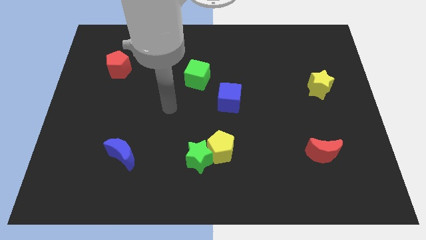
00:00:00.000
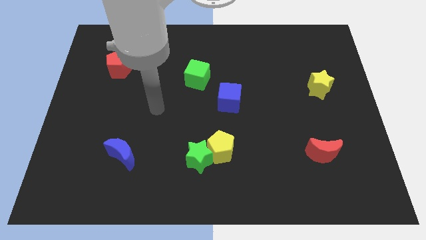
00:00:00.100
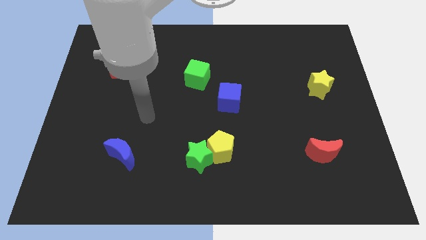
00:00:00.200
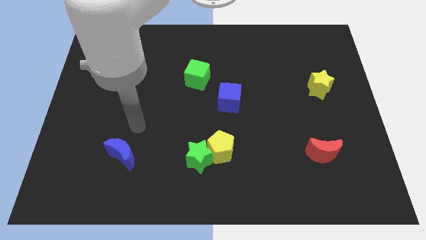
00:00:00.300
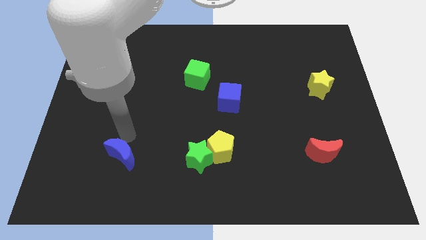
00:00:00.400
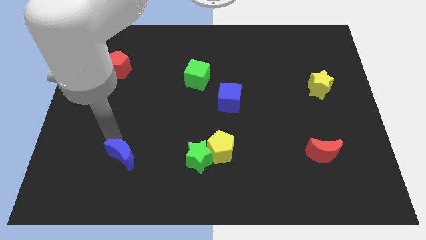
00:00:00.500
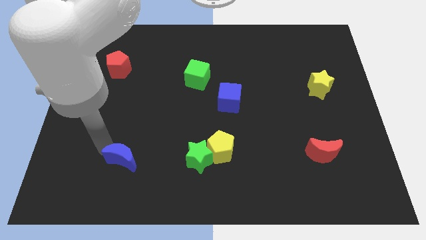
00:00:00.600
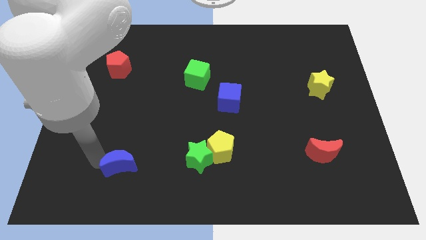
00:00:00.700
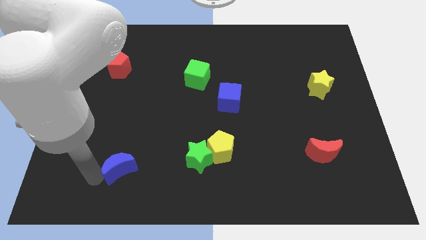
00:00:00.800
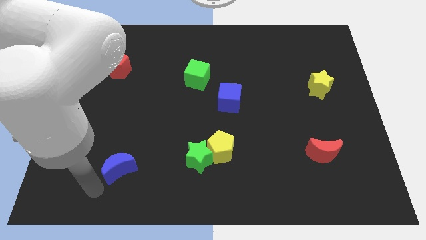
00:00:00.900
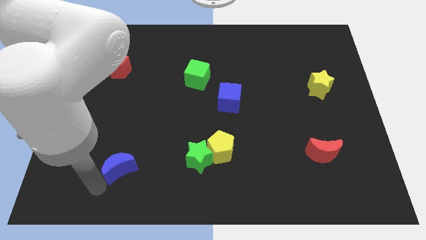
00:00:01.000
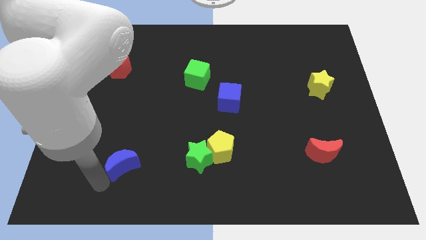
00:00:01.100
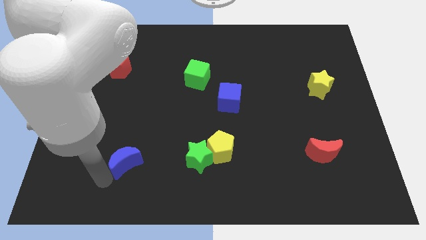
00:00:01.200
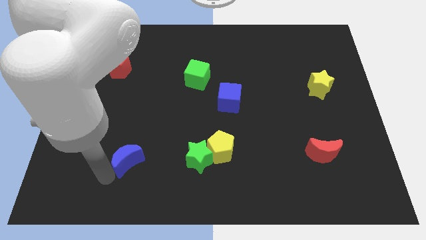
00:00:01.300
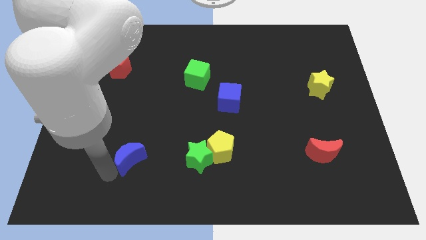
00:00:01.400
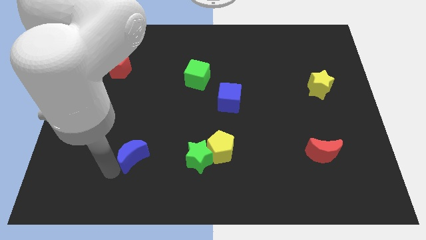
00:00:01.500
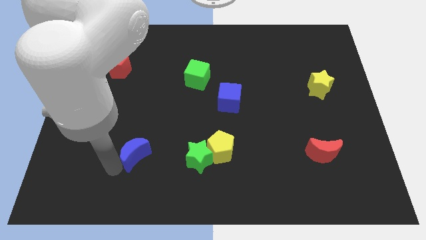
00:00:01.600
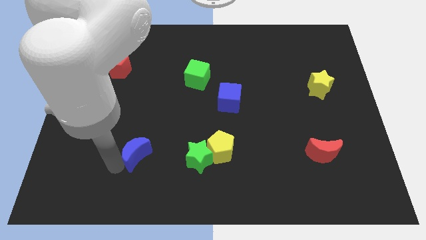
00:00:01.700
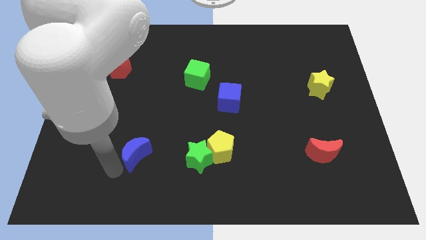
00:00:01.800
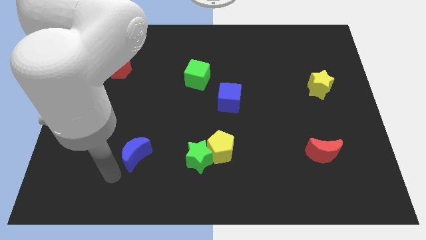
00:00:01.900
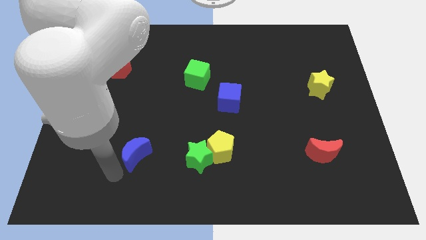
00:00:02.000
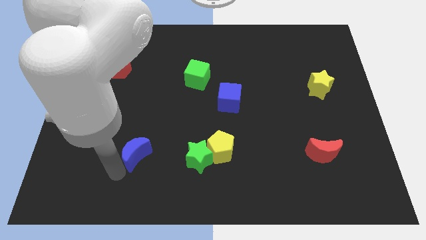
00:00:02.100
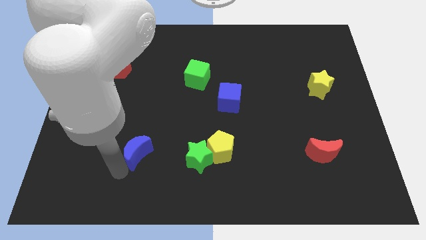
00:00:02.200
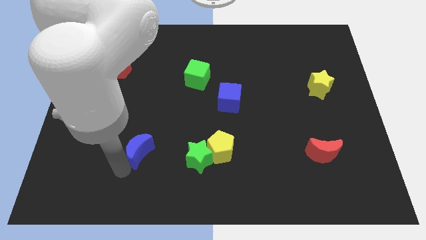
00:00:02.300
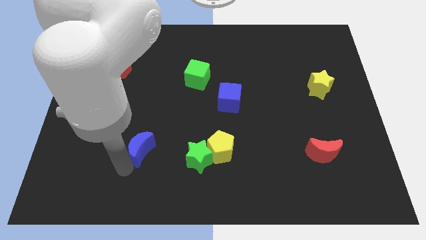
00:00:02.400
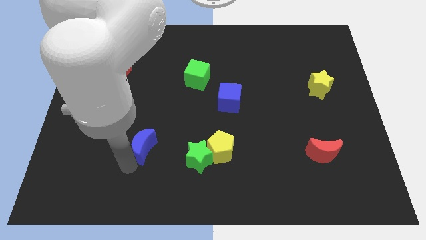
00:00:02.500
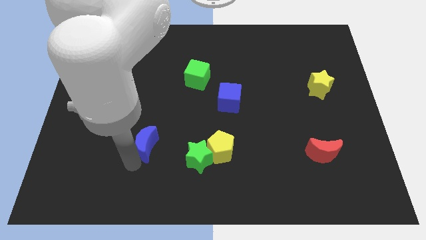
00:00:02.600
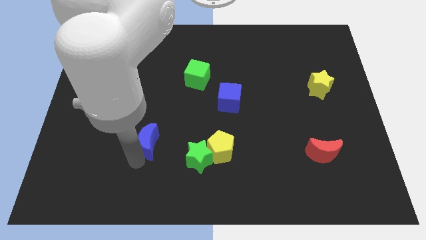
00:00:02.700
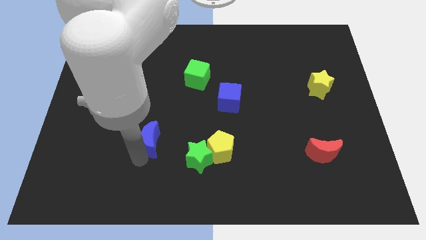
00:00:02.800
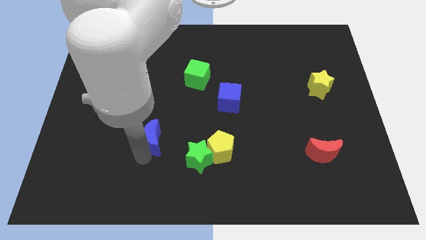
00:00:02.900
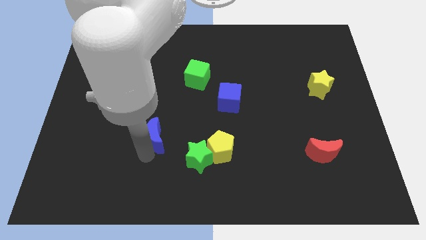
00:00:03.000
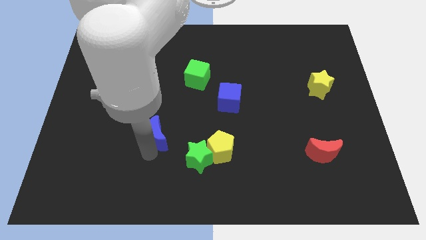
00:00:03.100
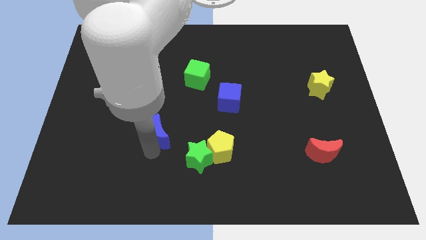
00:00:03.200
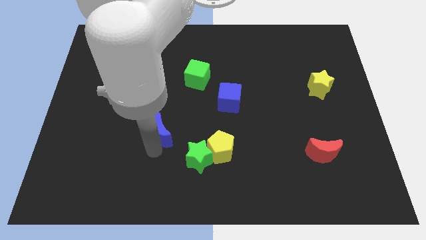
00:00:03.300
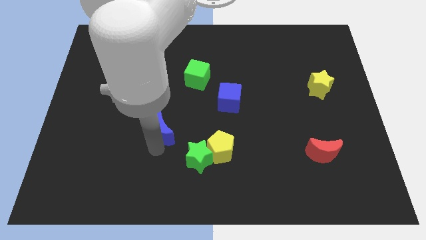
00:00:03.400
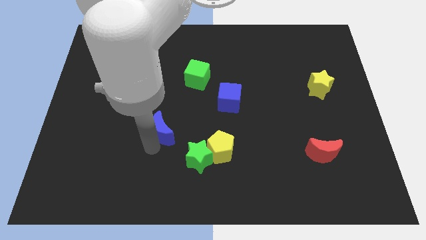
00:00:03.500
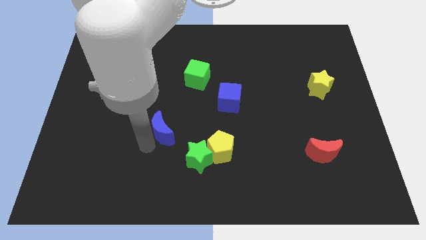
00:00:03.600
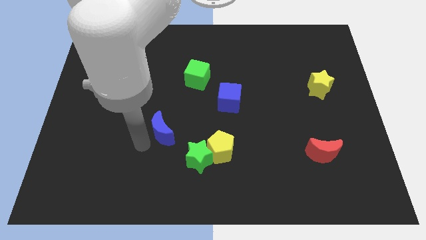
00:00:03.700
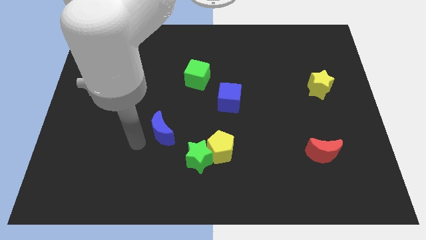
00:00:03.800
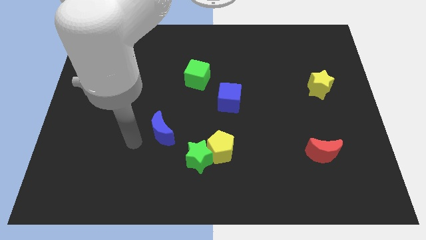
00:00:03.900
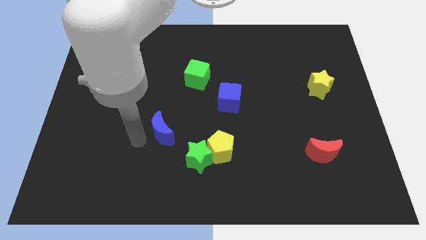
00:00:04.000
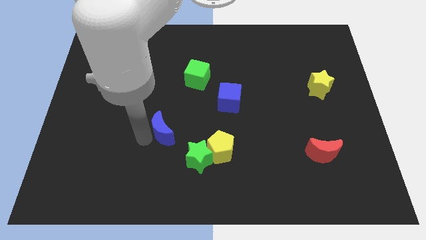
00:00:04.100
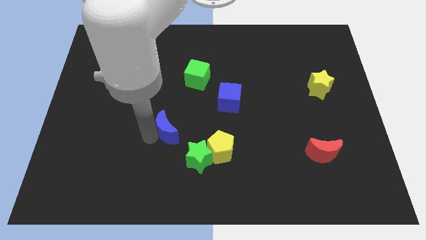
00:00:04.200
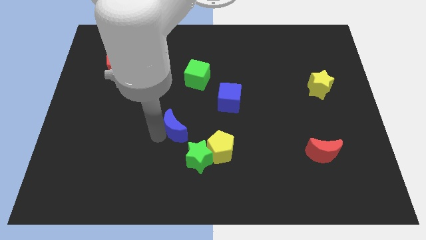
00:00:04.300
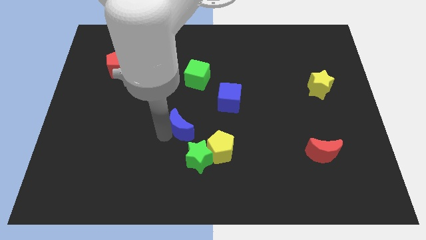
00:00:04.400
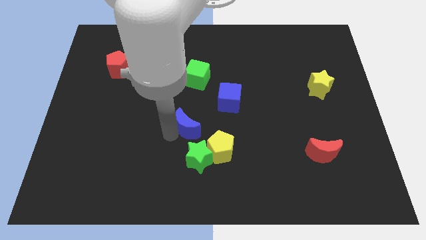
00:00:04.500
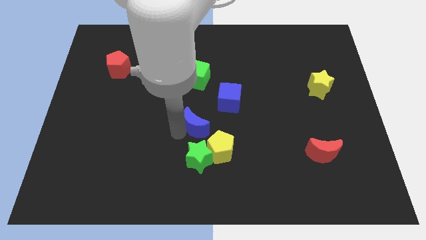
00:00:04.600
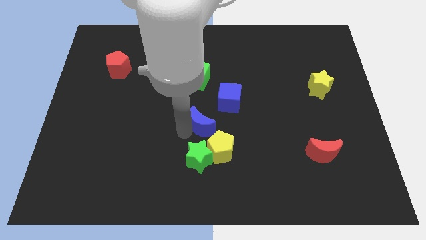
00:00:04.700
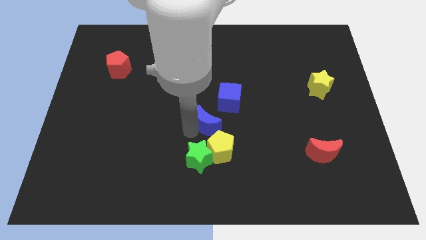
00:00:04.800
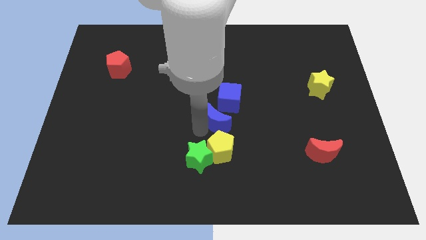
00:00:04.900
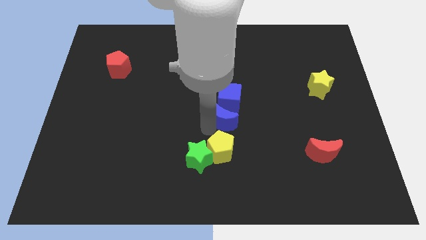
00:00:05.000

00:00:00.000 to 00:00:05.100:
put the blue moon next to the blue cube

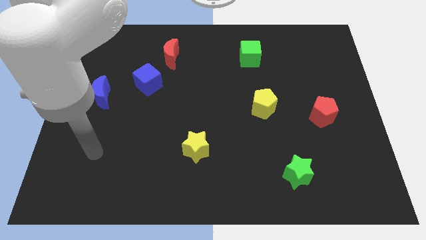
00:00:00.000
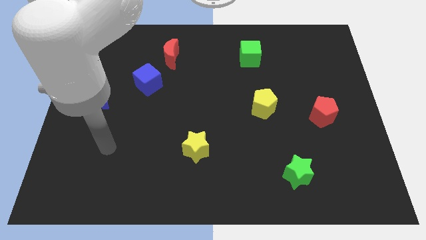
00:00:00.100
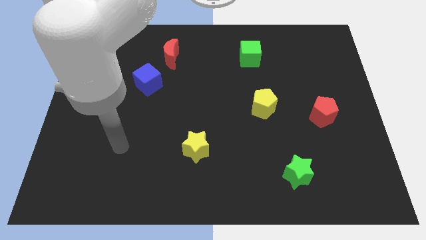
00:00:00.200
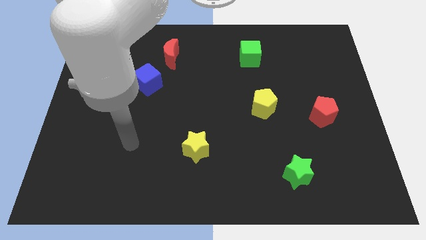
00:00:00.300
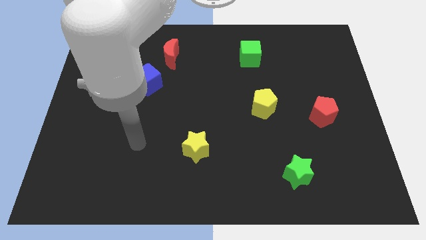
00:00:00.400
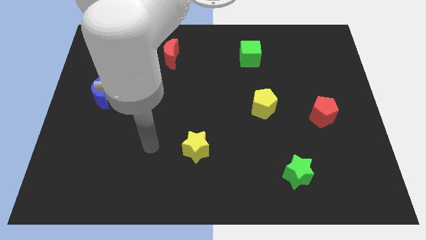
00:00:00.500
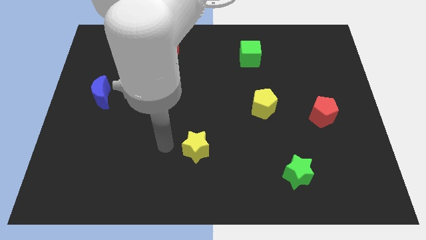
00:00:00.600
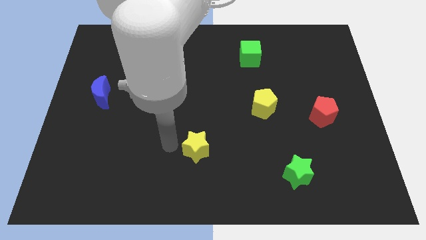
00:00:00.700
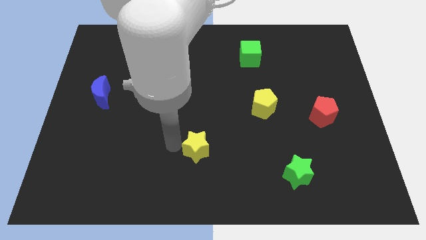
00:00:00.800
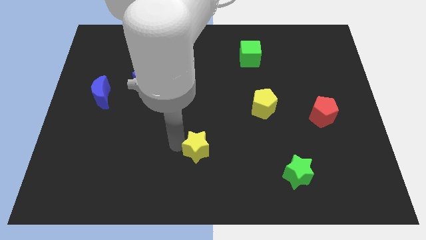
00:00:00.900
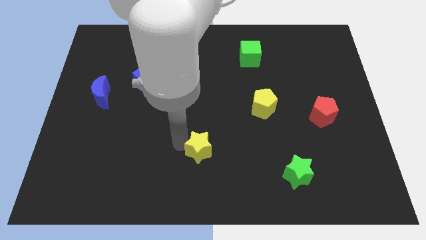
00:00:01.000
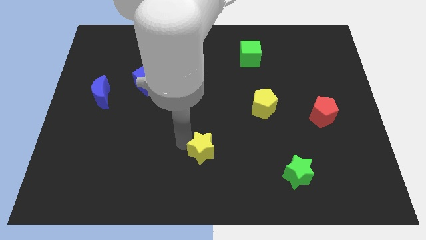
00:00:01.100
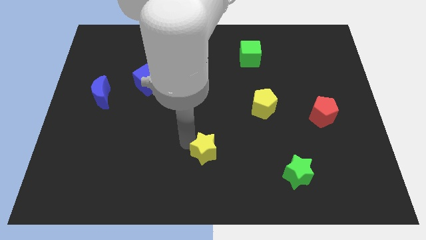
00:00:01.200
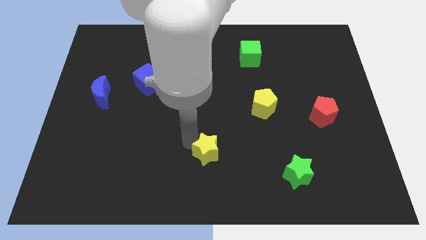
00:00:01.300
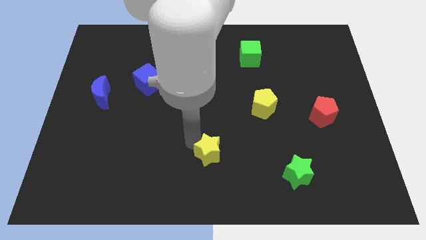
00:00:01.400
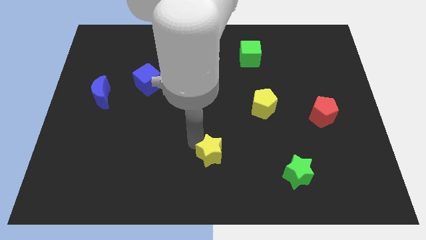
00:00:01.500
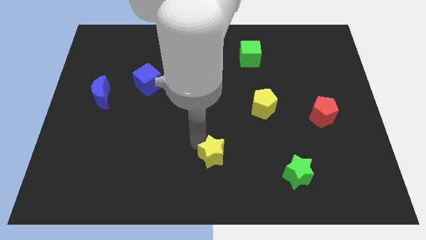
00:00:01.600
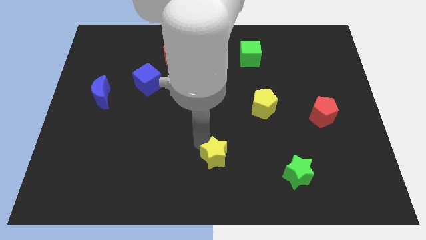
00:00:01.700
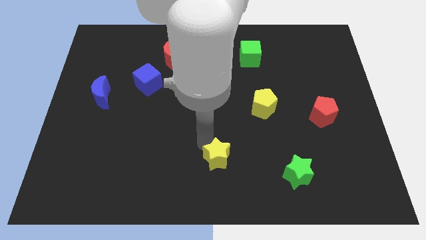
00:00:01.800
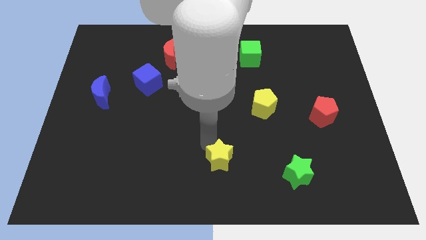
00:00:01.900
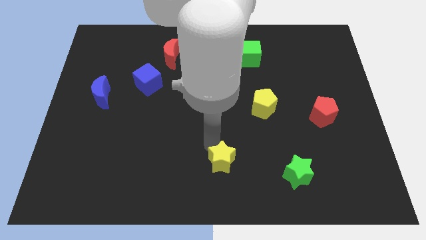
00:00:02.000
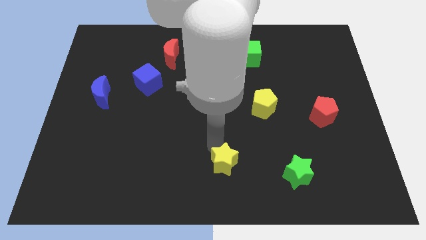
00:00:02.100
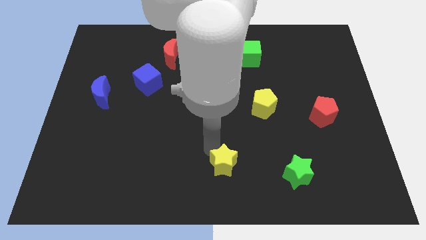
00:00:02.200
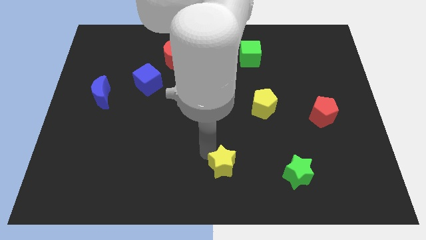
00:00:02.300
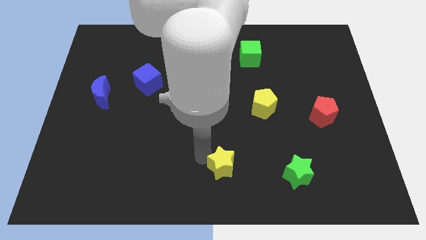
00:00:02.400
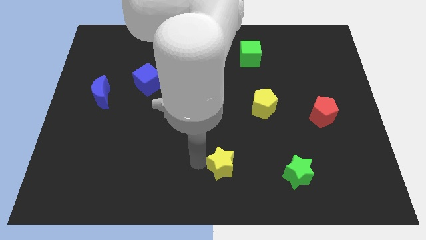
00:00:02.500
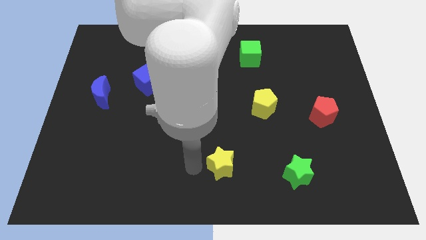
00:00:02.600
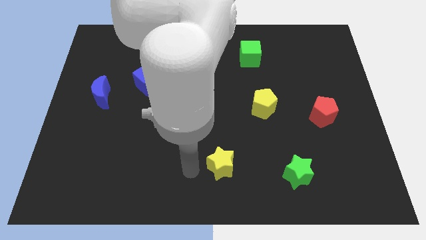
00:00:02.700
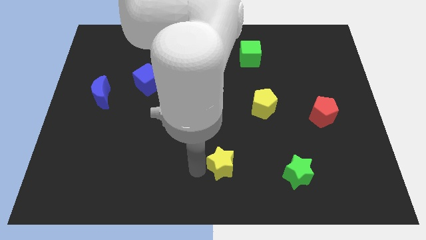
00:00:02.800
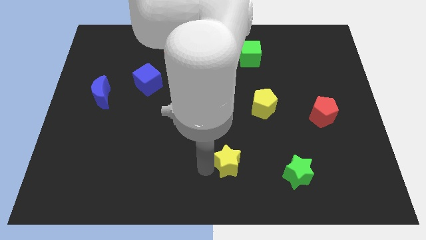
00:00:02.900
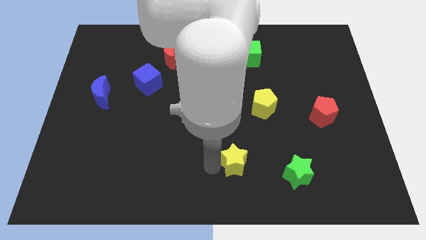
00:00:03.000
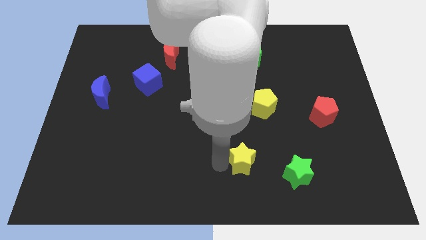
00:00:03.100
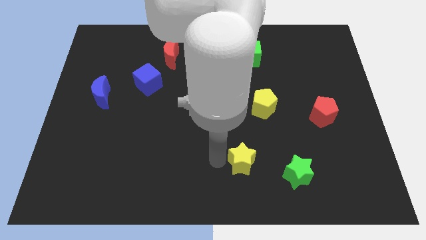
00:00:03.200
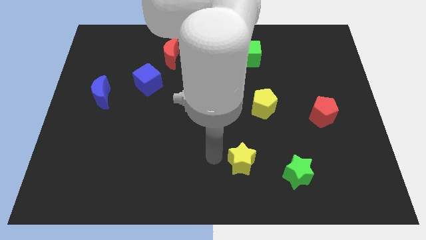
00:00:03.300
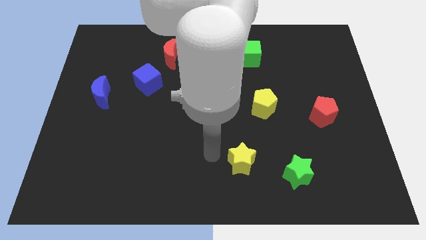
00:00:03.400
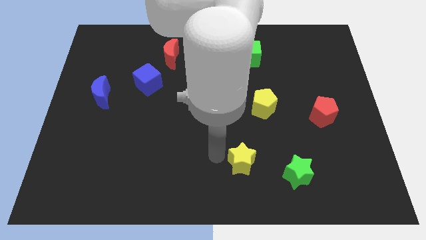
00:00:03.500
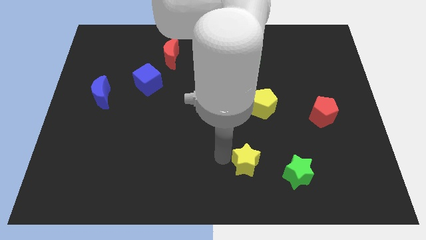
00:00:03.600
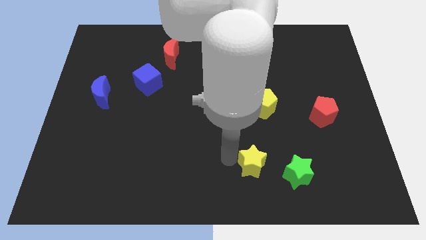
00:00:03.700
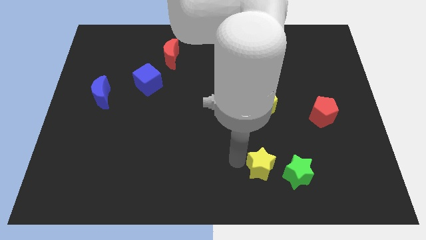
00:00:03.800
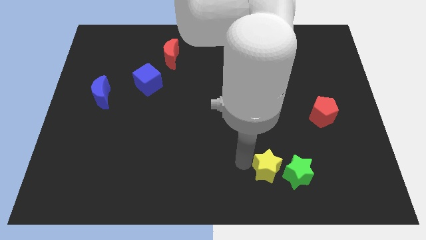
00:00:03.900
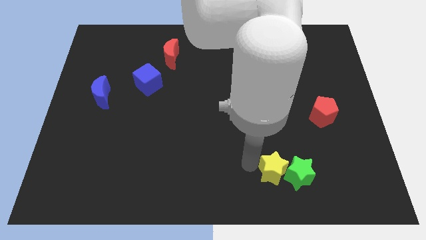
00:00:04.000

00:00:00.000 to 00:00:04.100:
push the yellow star next to the green star
